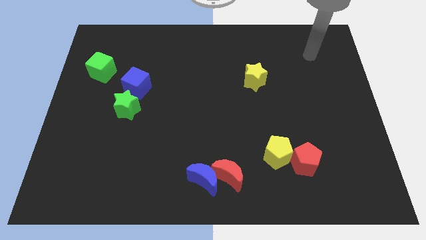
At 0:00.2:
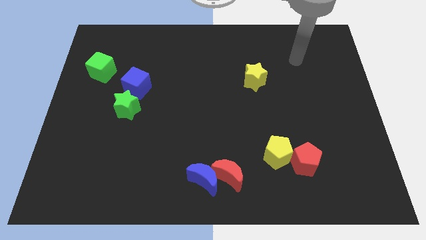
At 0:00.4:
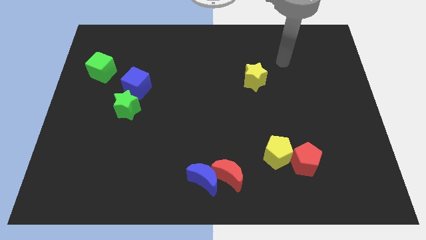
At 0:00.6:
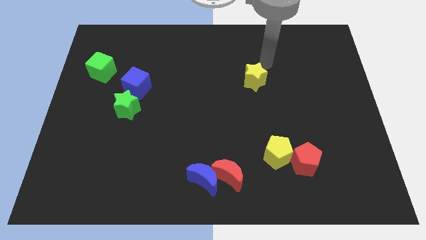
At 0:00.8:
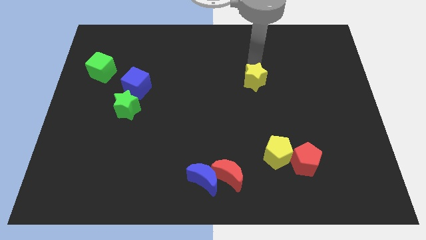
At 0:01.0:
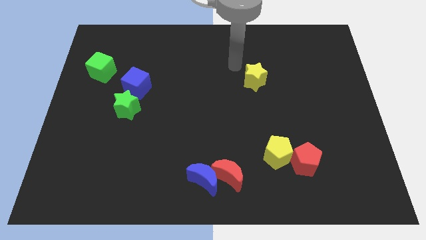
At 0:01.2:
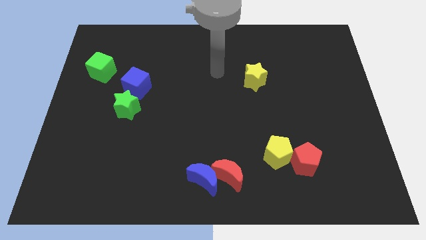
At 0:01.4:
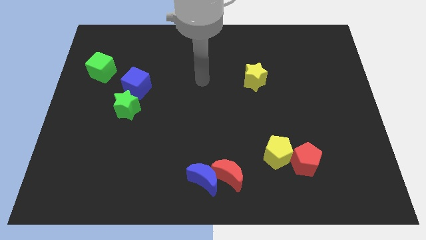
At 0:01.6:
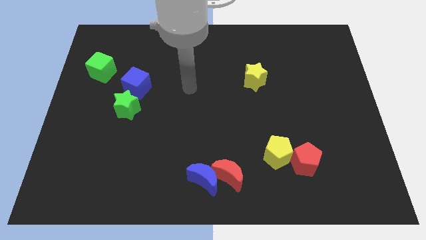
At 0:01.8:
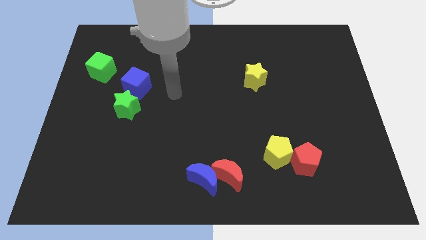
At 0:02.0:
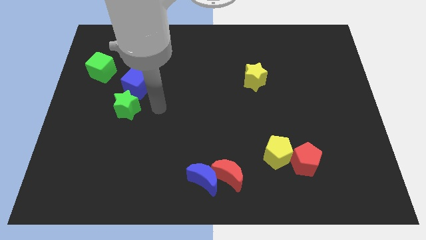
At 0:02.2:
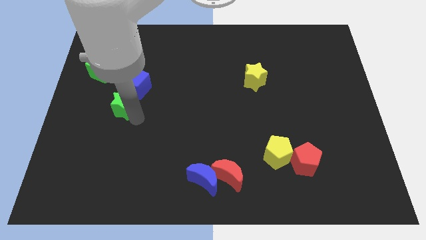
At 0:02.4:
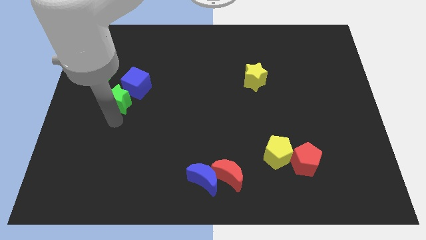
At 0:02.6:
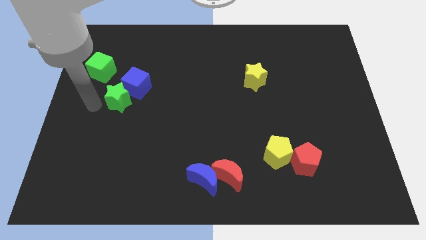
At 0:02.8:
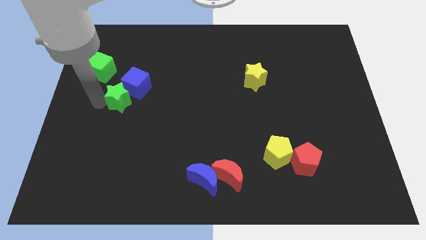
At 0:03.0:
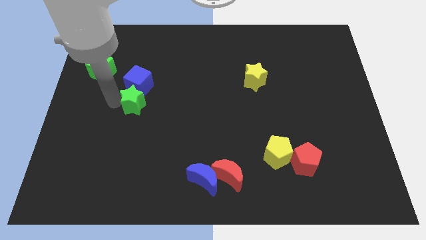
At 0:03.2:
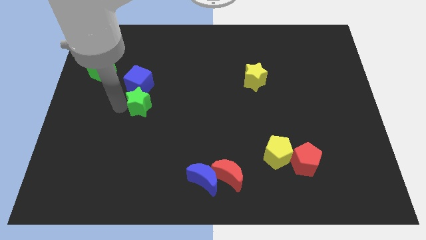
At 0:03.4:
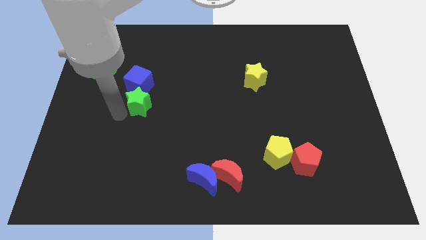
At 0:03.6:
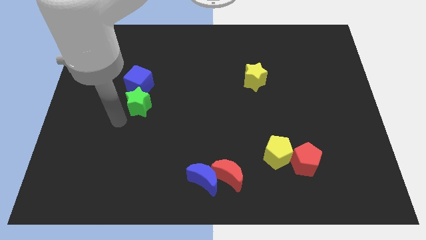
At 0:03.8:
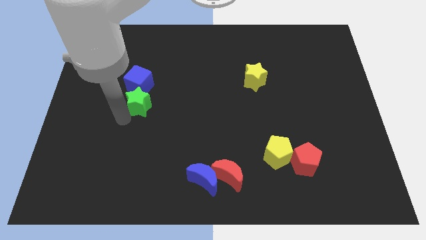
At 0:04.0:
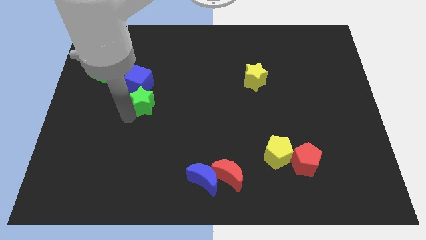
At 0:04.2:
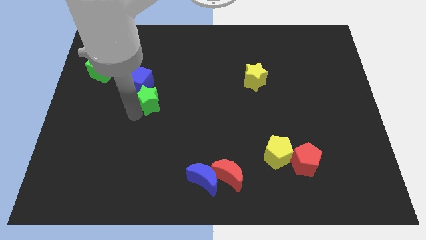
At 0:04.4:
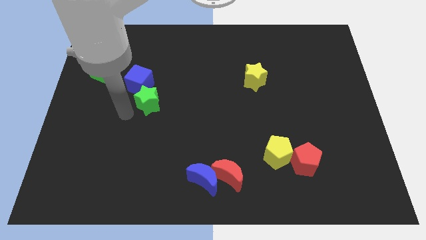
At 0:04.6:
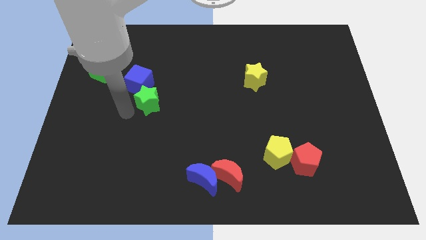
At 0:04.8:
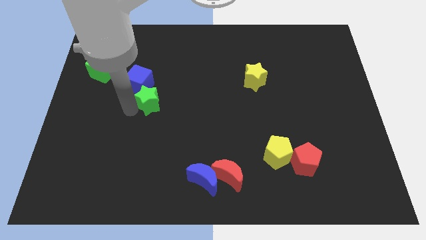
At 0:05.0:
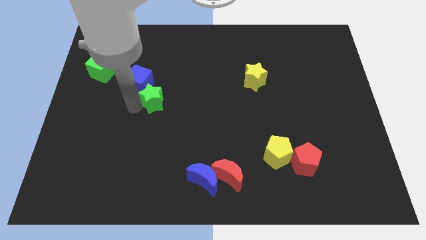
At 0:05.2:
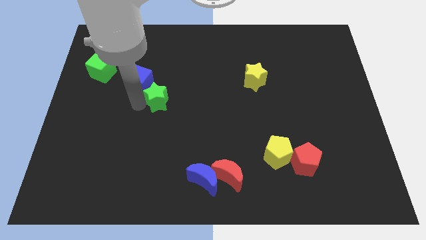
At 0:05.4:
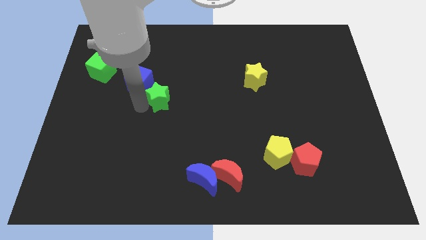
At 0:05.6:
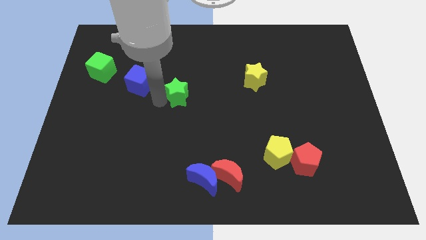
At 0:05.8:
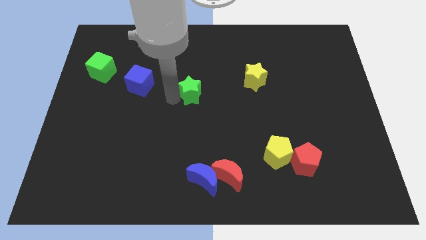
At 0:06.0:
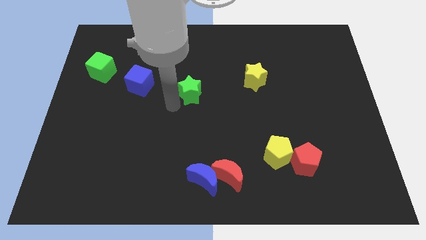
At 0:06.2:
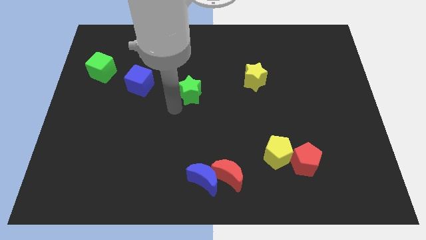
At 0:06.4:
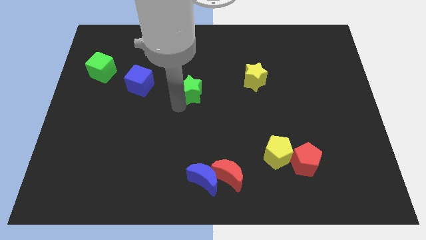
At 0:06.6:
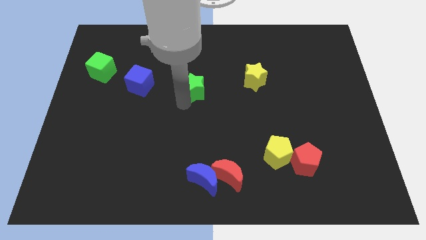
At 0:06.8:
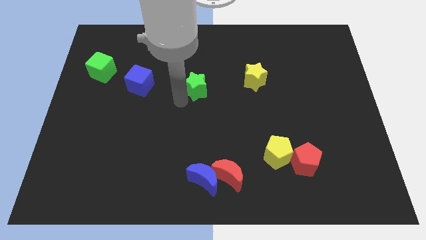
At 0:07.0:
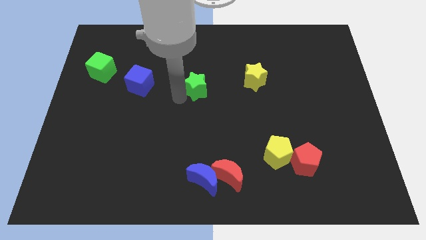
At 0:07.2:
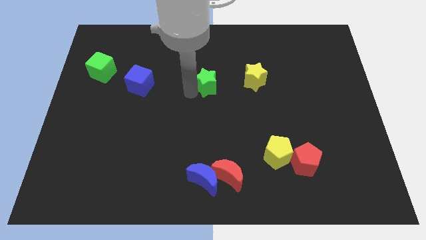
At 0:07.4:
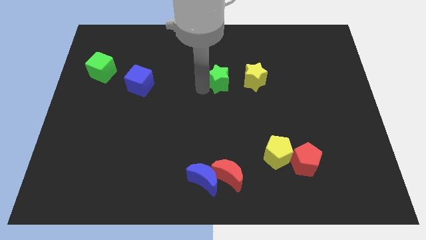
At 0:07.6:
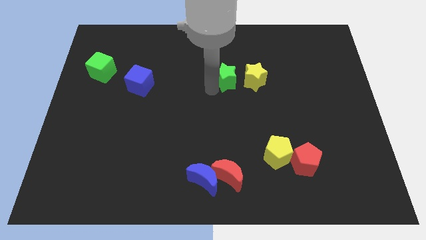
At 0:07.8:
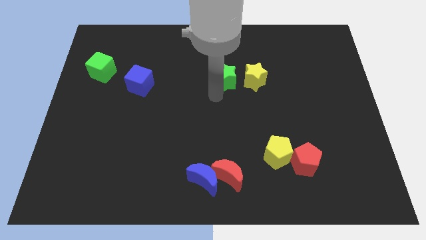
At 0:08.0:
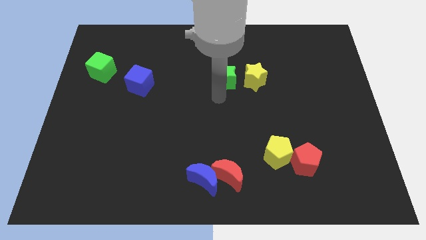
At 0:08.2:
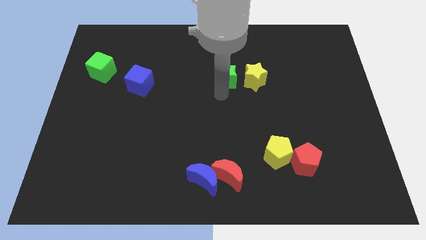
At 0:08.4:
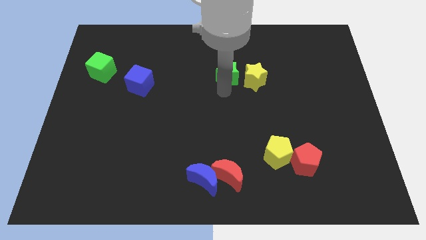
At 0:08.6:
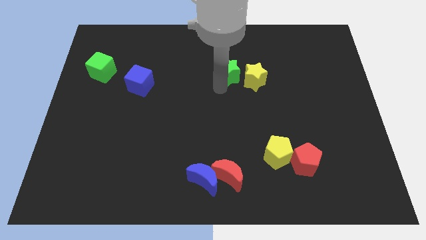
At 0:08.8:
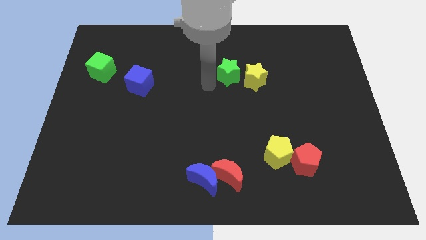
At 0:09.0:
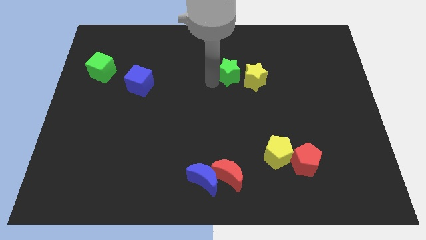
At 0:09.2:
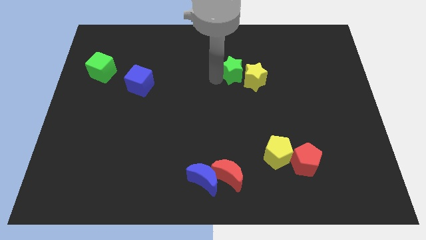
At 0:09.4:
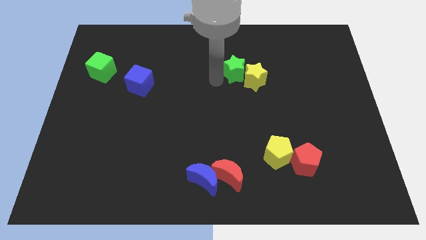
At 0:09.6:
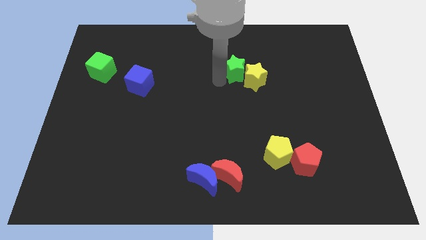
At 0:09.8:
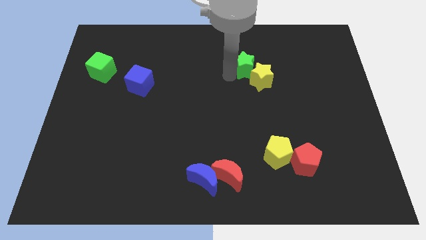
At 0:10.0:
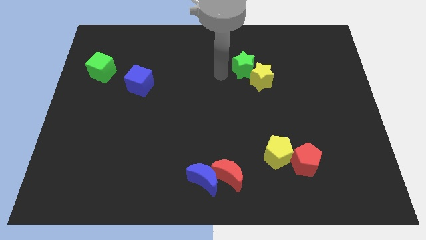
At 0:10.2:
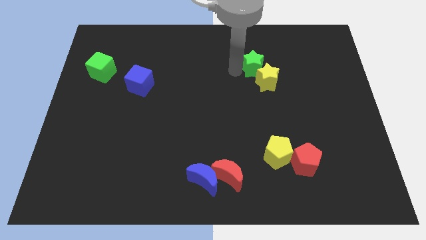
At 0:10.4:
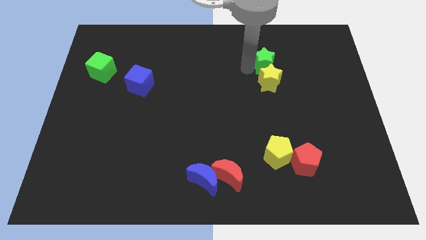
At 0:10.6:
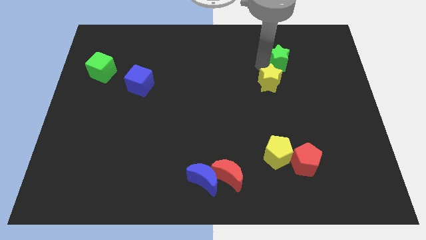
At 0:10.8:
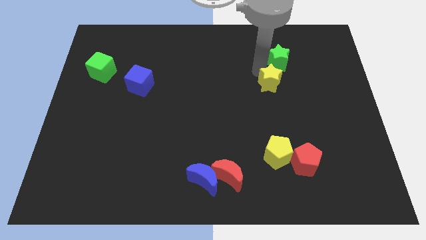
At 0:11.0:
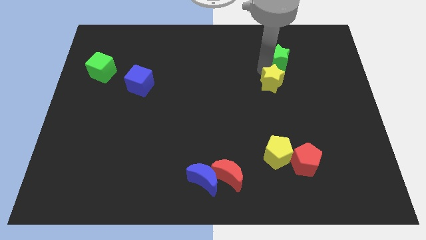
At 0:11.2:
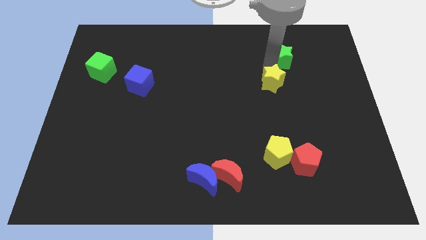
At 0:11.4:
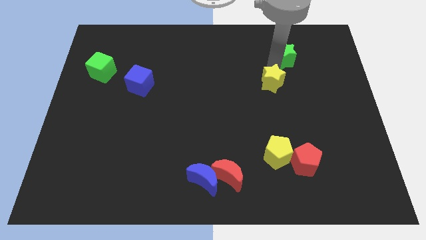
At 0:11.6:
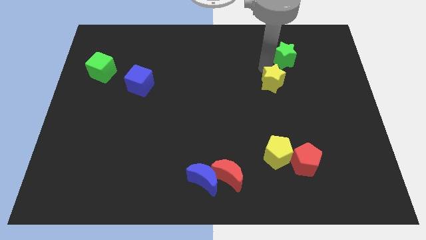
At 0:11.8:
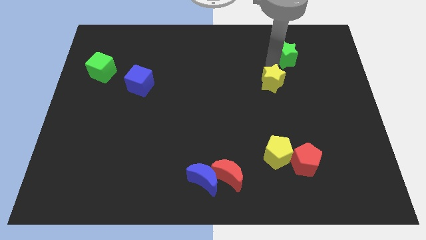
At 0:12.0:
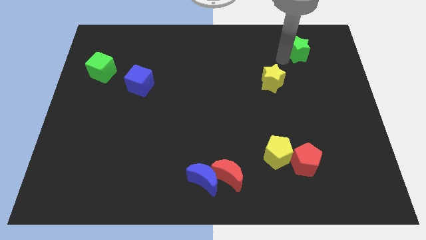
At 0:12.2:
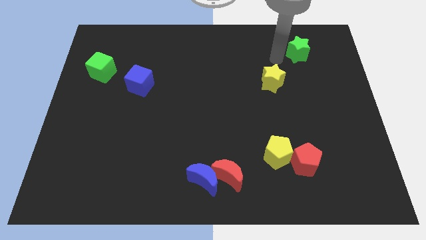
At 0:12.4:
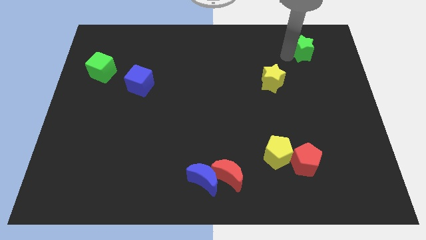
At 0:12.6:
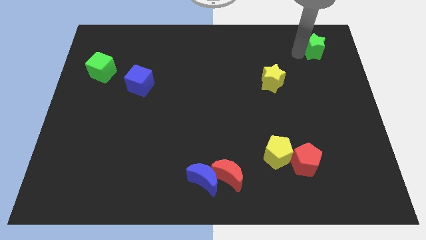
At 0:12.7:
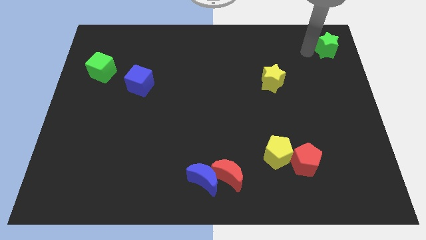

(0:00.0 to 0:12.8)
move the green star to the upper right corner
